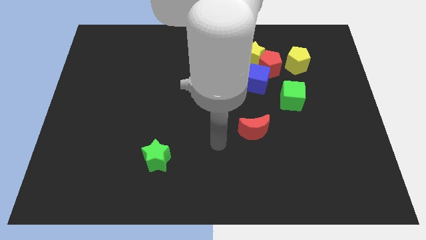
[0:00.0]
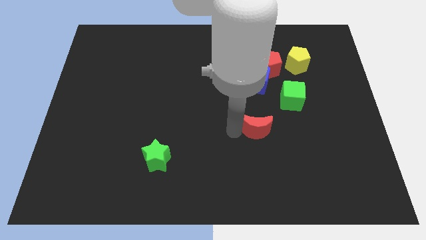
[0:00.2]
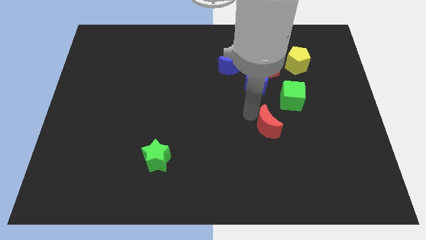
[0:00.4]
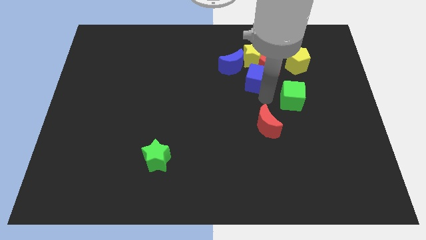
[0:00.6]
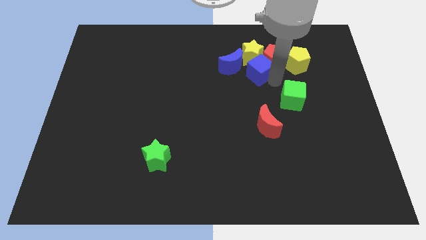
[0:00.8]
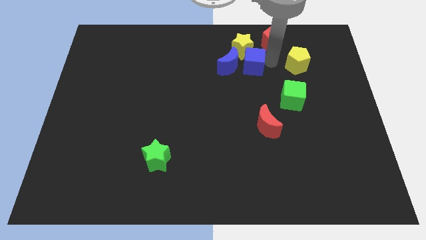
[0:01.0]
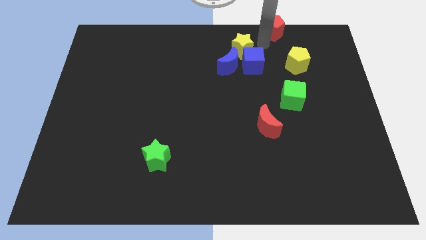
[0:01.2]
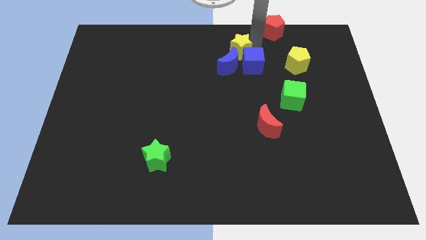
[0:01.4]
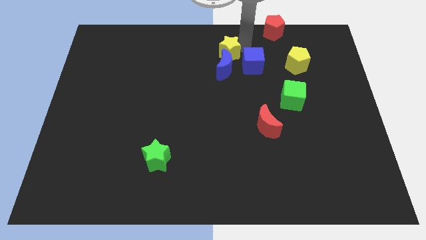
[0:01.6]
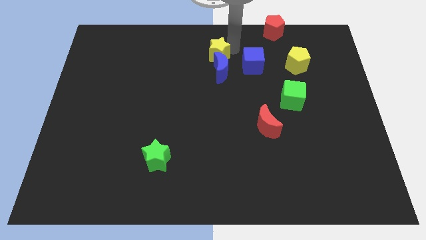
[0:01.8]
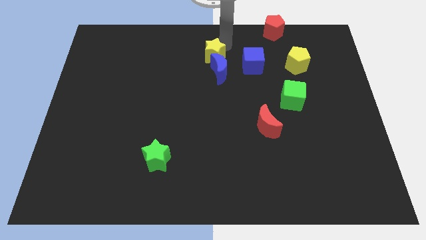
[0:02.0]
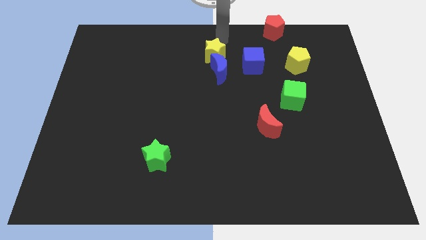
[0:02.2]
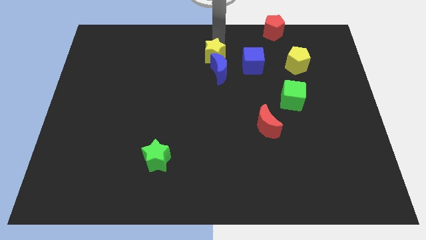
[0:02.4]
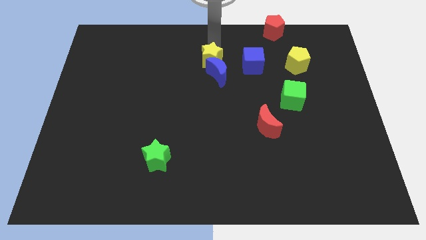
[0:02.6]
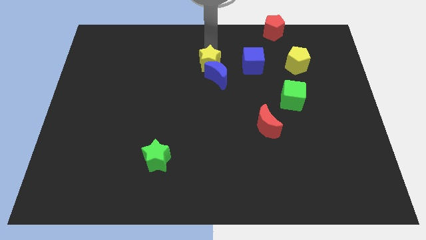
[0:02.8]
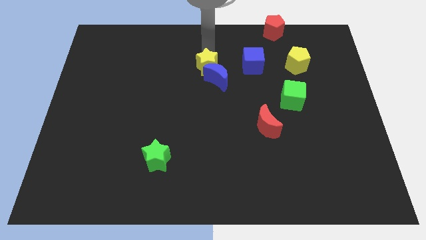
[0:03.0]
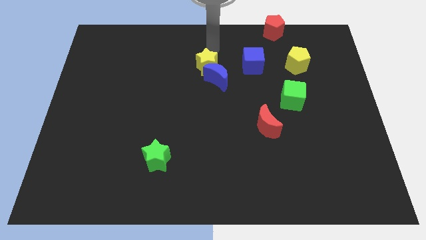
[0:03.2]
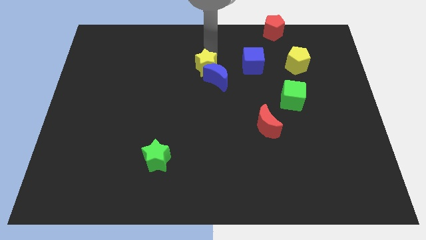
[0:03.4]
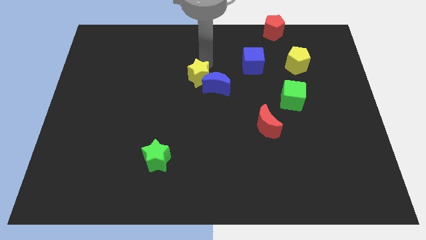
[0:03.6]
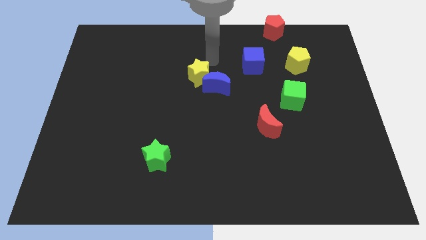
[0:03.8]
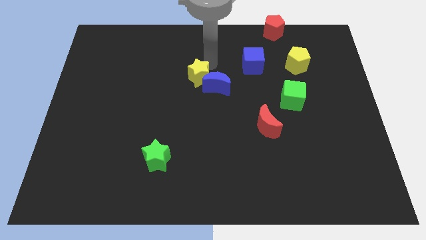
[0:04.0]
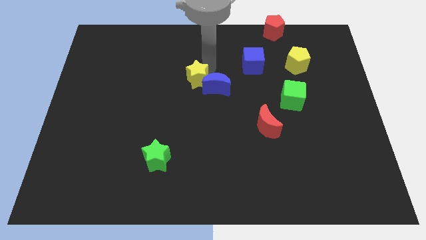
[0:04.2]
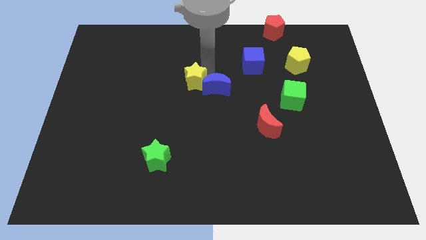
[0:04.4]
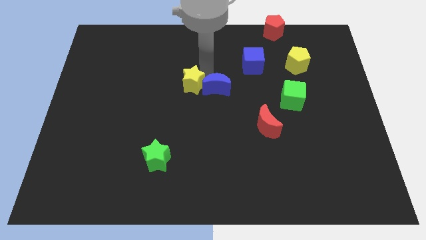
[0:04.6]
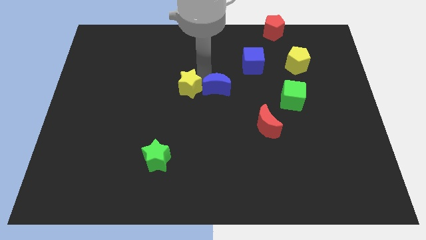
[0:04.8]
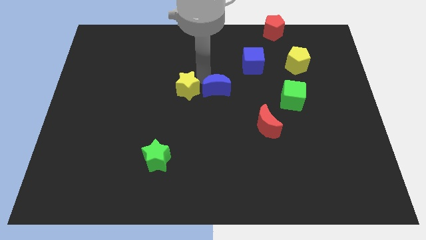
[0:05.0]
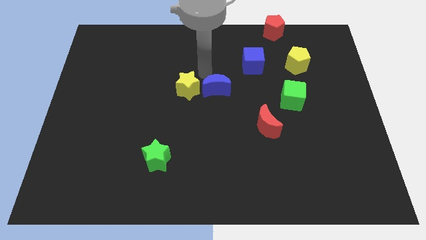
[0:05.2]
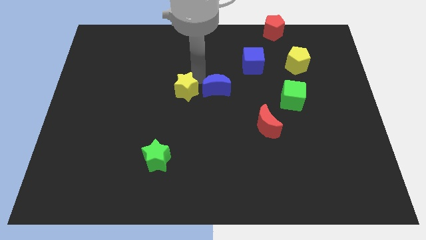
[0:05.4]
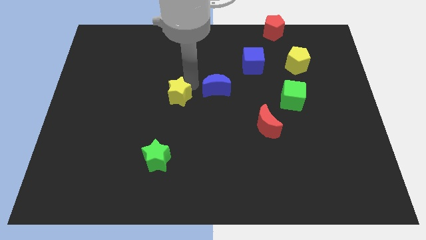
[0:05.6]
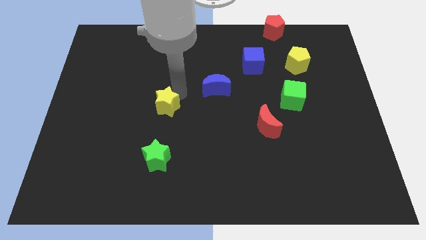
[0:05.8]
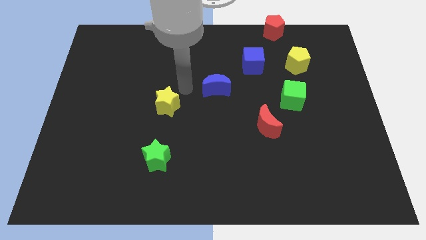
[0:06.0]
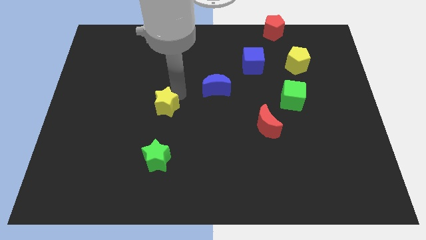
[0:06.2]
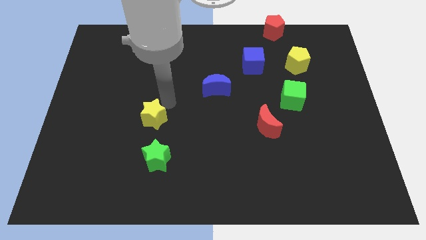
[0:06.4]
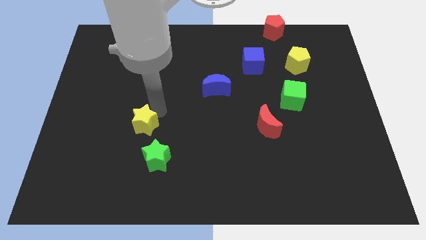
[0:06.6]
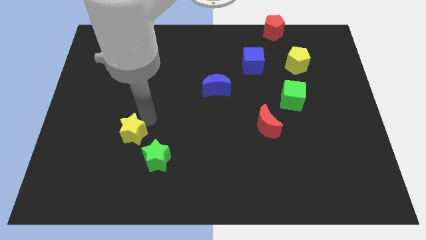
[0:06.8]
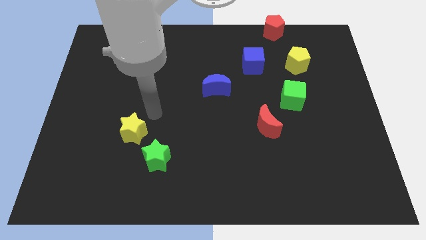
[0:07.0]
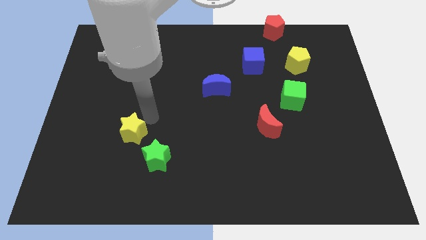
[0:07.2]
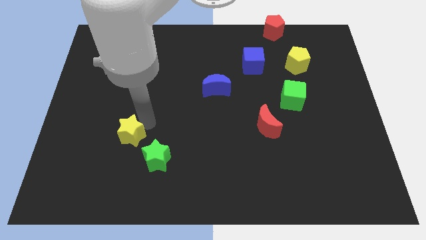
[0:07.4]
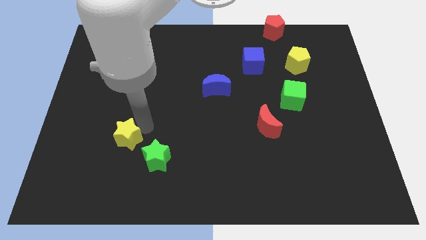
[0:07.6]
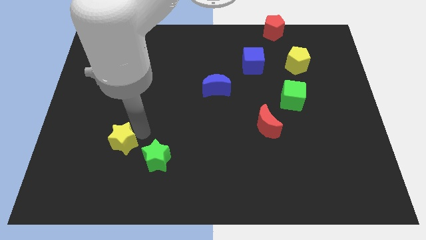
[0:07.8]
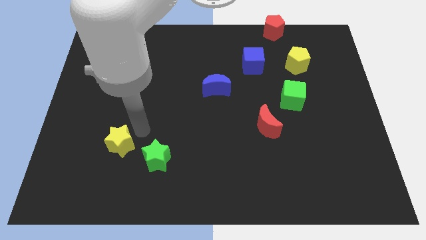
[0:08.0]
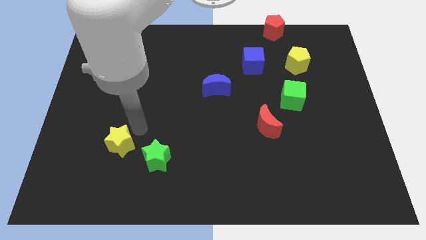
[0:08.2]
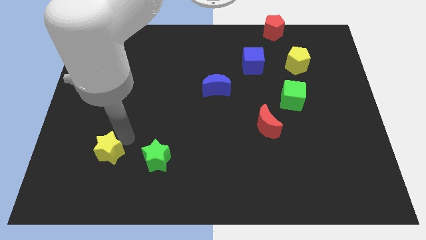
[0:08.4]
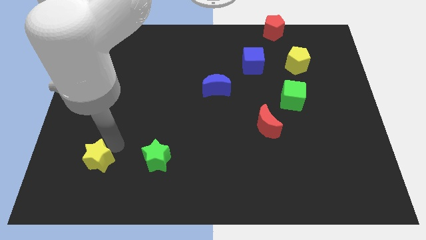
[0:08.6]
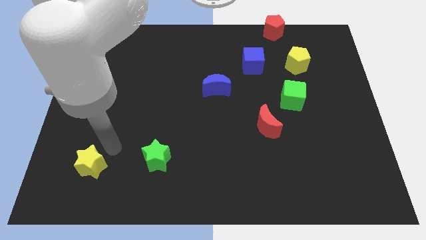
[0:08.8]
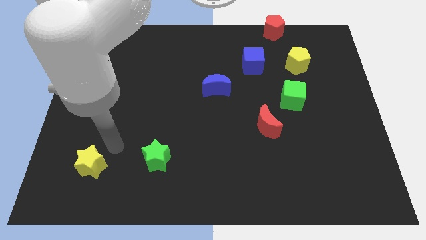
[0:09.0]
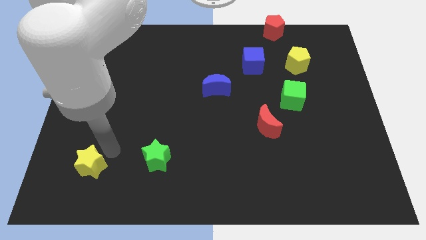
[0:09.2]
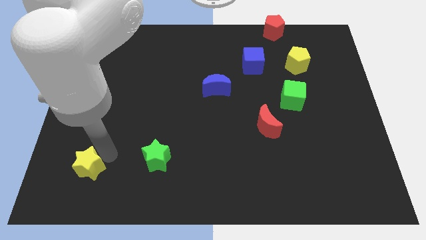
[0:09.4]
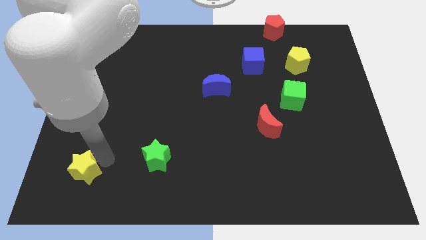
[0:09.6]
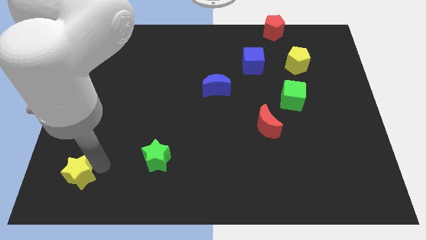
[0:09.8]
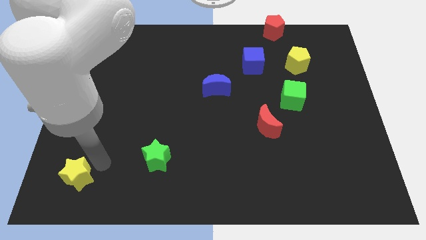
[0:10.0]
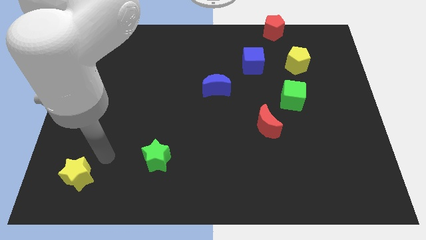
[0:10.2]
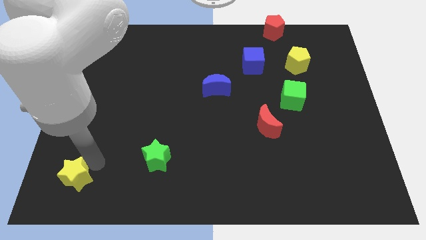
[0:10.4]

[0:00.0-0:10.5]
put the yellow star to the lower left corner
